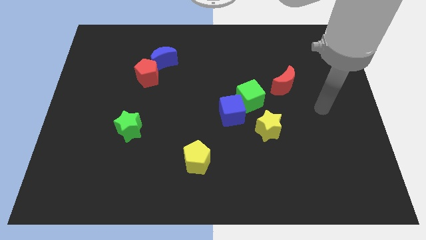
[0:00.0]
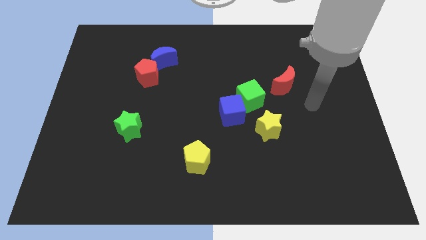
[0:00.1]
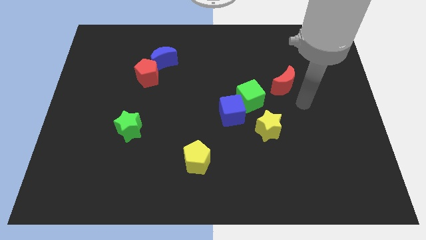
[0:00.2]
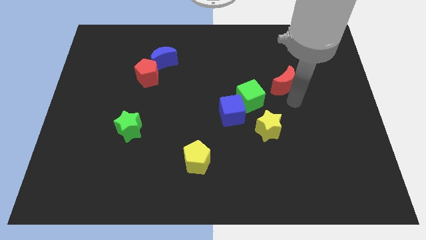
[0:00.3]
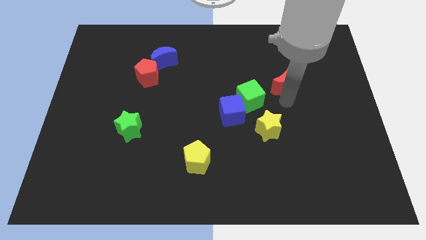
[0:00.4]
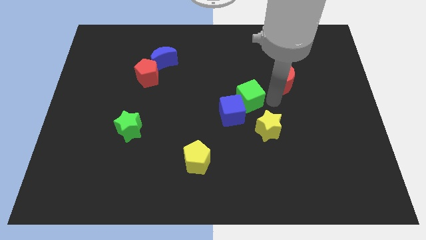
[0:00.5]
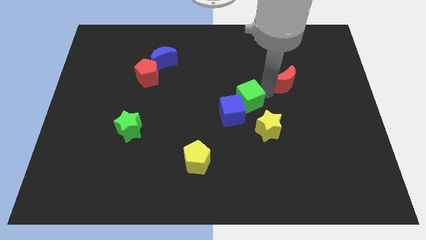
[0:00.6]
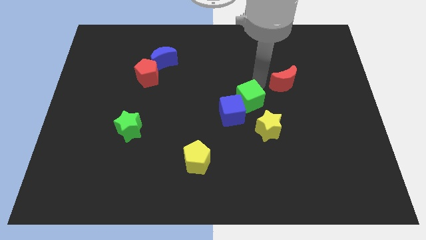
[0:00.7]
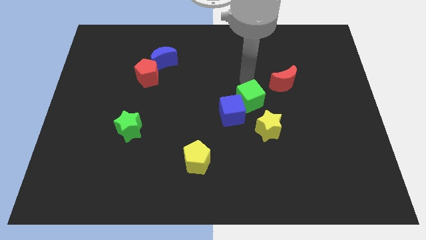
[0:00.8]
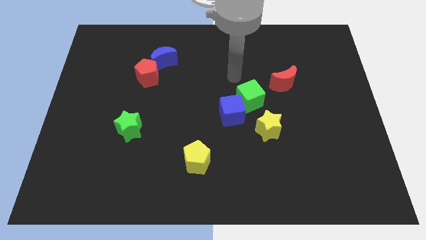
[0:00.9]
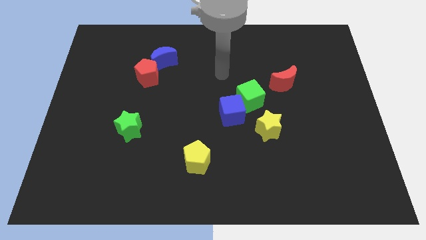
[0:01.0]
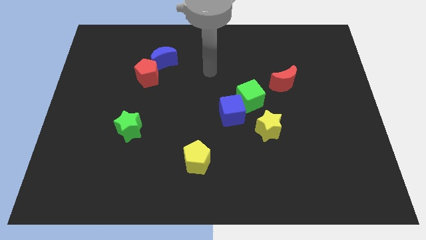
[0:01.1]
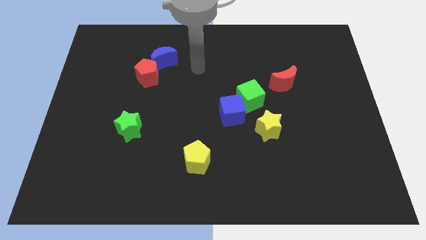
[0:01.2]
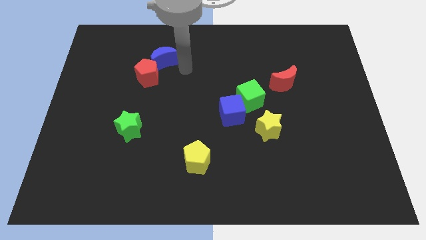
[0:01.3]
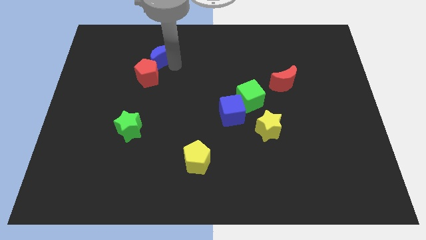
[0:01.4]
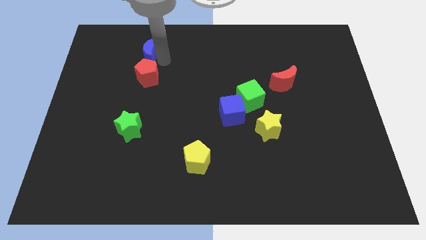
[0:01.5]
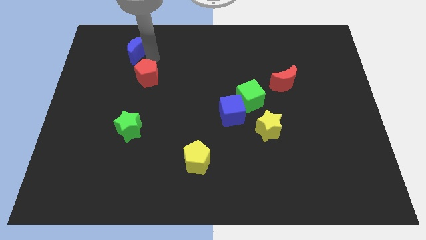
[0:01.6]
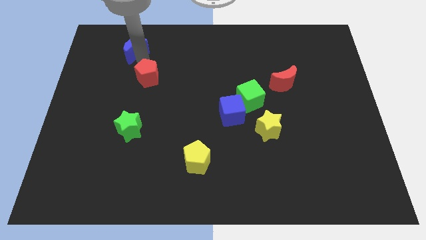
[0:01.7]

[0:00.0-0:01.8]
separate the red pentagon from the blue moon

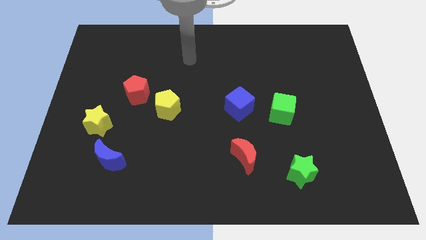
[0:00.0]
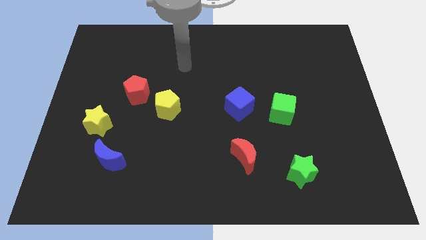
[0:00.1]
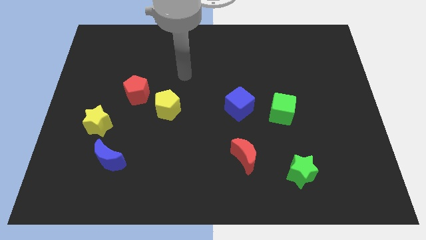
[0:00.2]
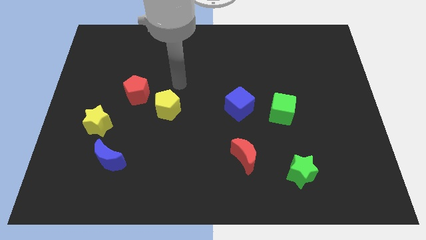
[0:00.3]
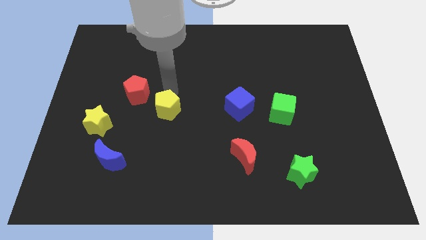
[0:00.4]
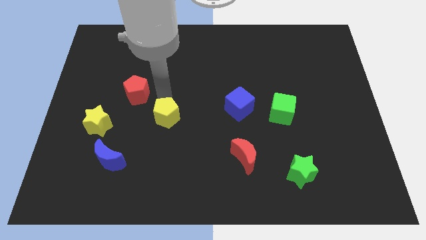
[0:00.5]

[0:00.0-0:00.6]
move the red pentagon away from the yellow pentagon

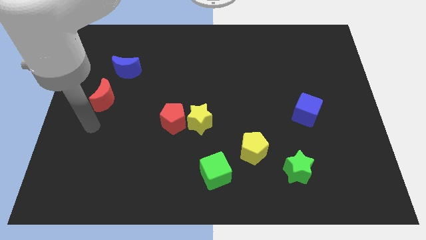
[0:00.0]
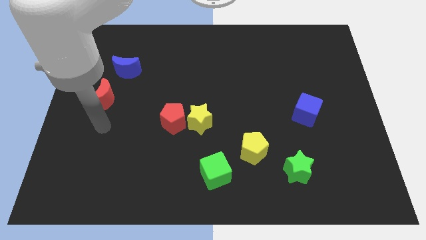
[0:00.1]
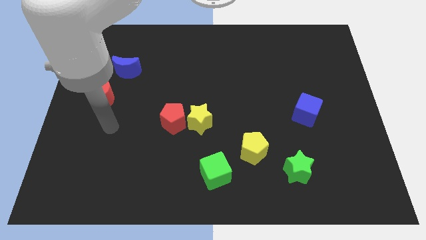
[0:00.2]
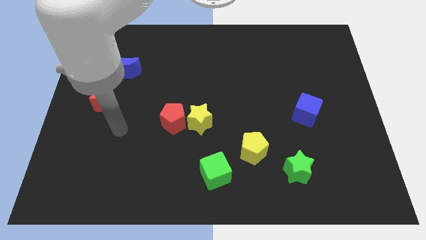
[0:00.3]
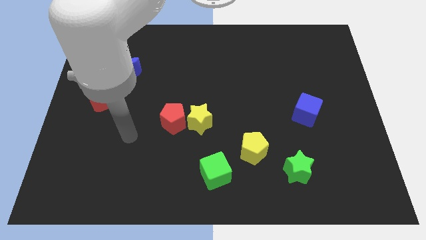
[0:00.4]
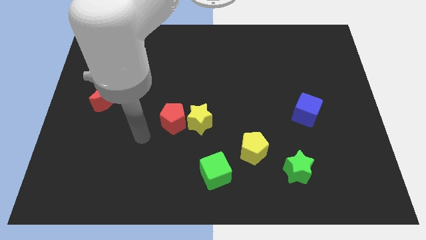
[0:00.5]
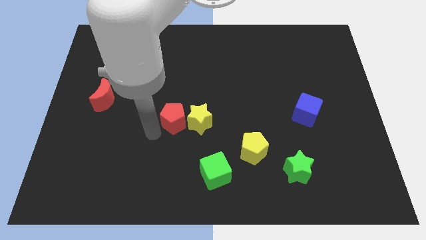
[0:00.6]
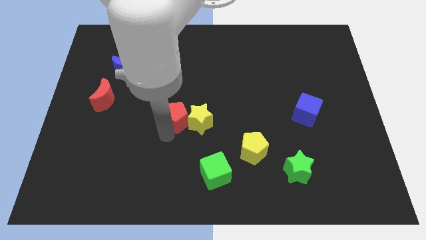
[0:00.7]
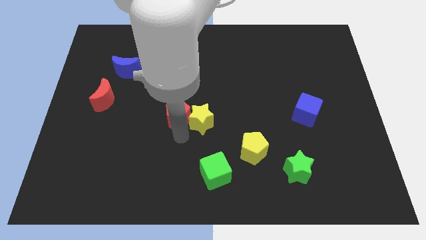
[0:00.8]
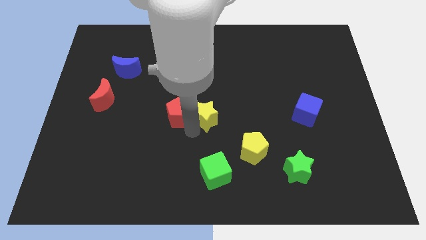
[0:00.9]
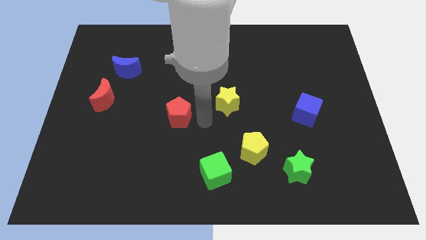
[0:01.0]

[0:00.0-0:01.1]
move the red pentagon away from the yellow star

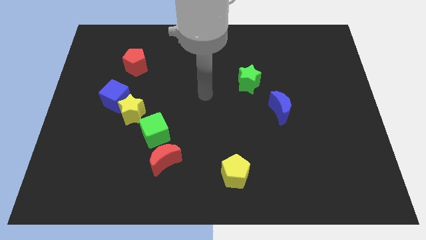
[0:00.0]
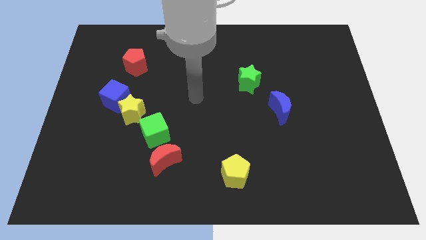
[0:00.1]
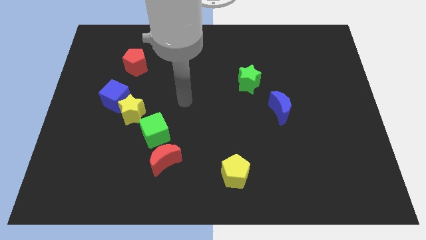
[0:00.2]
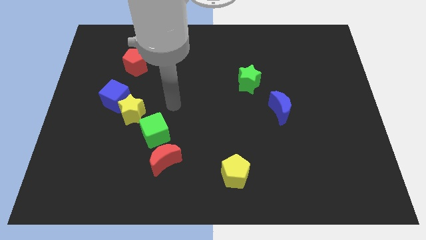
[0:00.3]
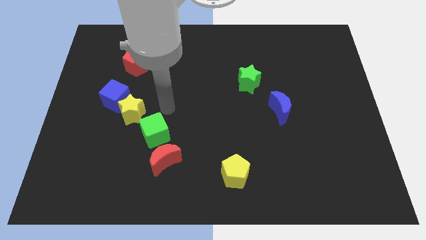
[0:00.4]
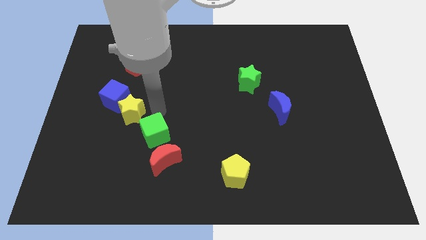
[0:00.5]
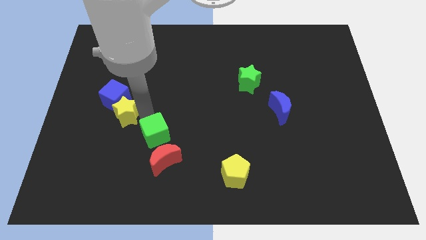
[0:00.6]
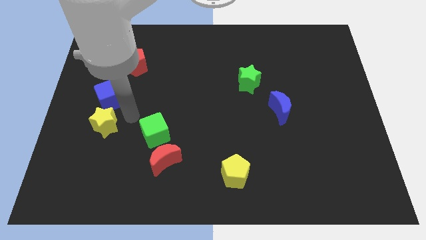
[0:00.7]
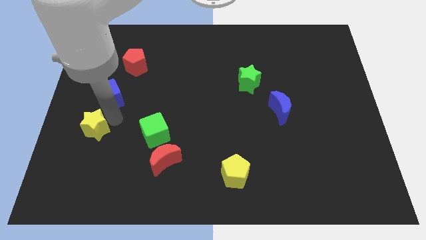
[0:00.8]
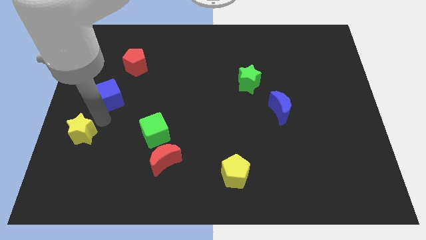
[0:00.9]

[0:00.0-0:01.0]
pull the blue cube apart from the yellow star

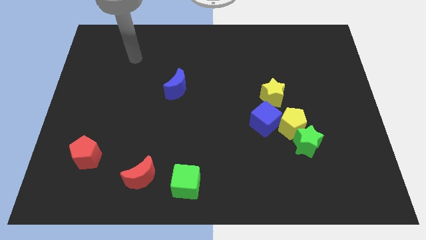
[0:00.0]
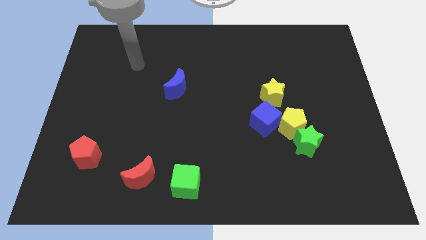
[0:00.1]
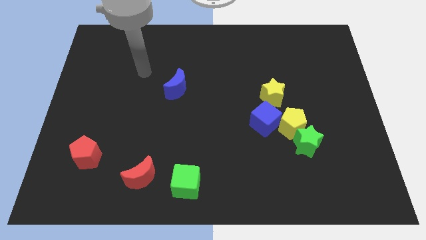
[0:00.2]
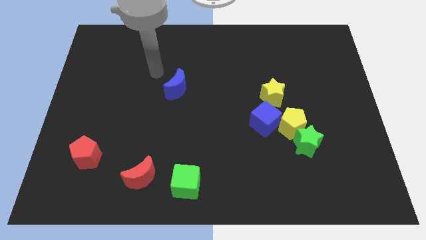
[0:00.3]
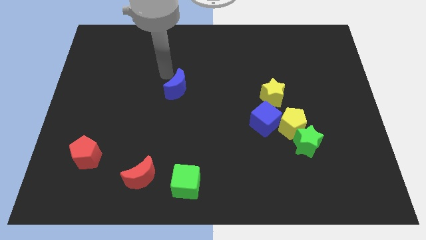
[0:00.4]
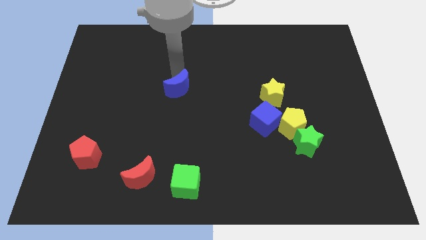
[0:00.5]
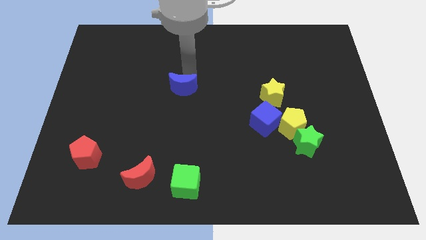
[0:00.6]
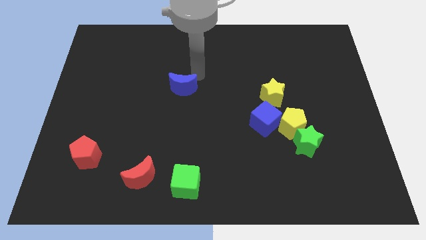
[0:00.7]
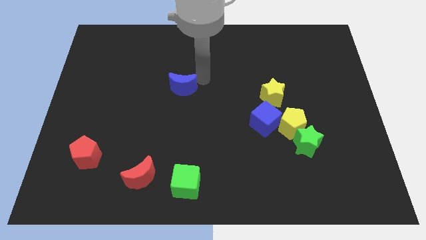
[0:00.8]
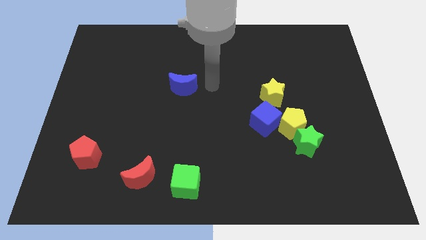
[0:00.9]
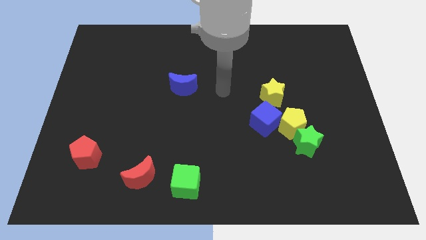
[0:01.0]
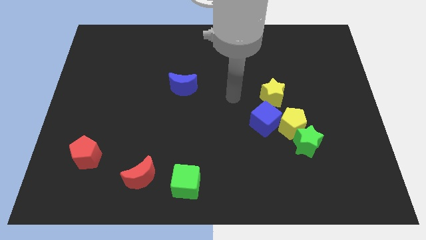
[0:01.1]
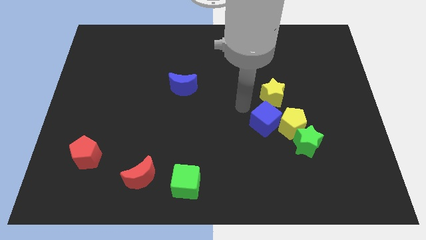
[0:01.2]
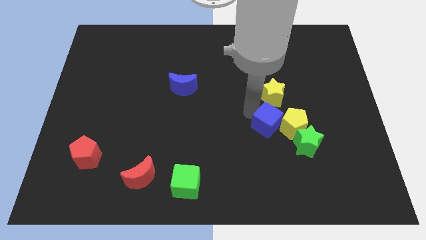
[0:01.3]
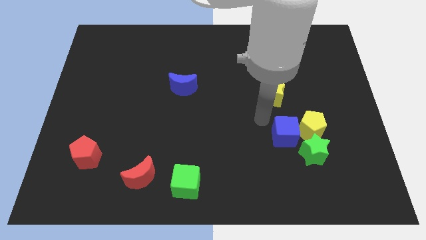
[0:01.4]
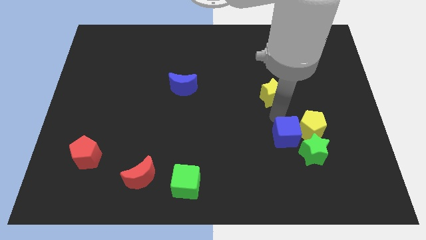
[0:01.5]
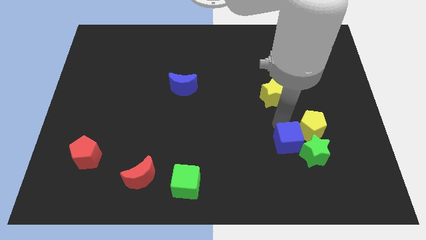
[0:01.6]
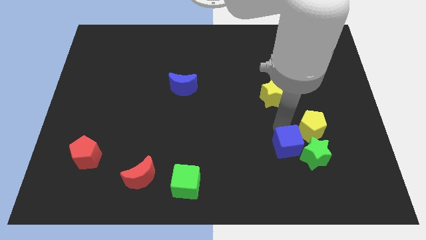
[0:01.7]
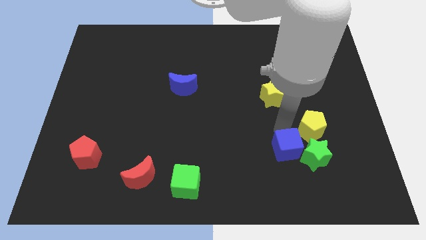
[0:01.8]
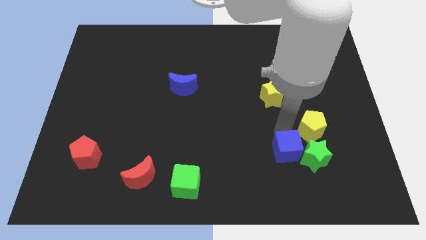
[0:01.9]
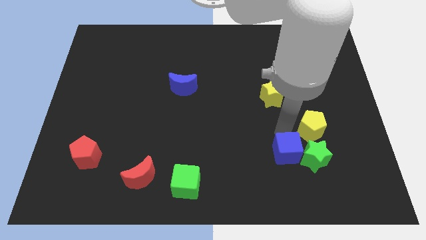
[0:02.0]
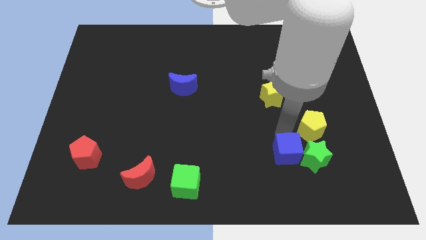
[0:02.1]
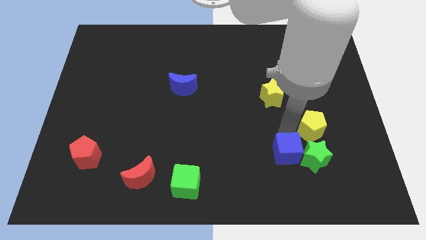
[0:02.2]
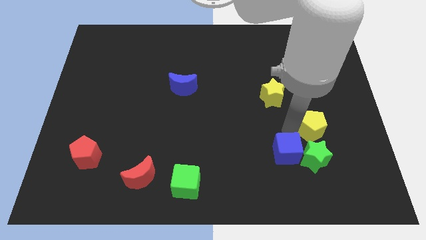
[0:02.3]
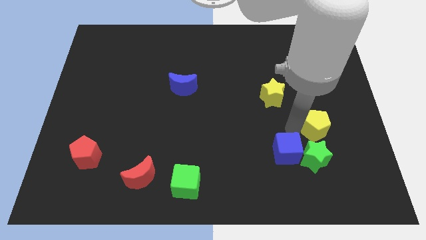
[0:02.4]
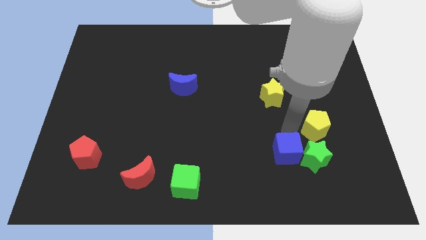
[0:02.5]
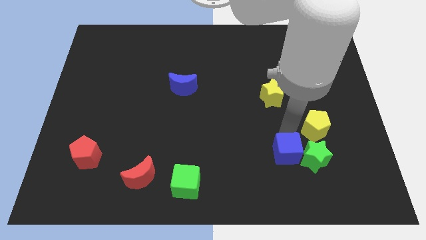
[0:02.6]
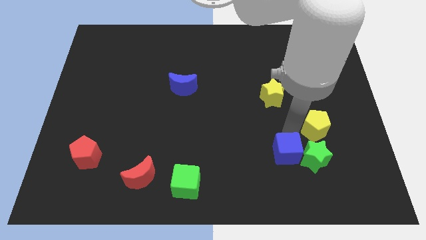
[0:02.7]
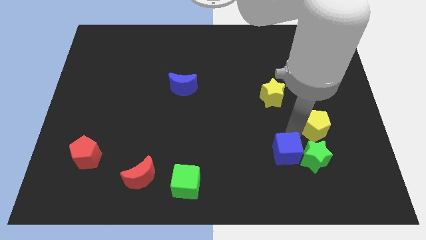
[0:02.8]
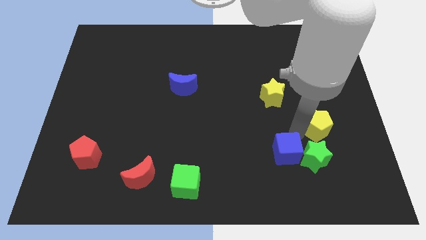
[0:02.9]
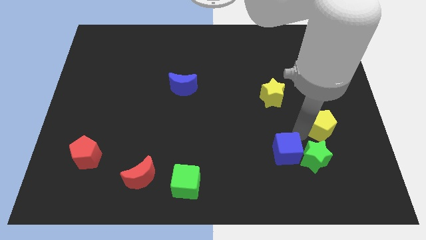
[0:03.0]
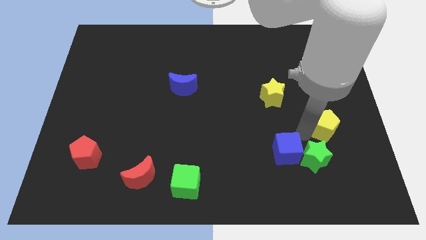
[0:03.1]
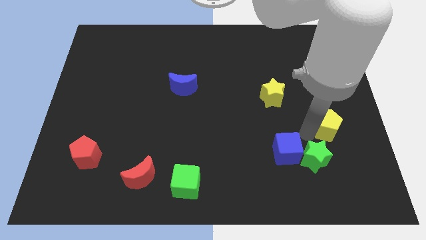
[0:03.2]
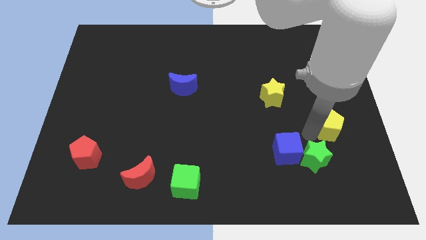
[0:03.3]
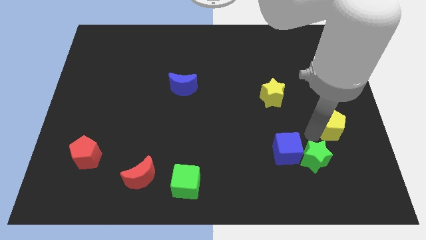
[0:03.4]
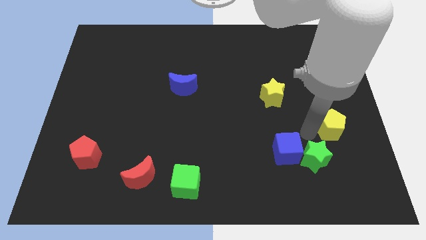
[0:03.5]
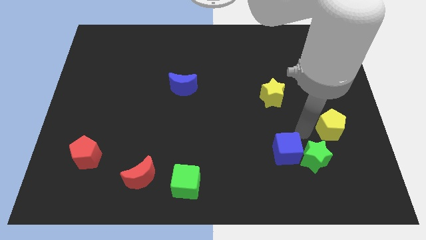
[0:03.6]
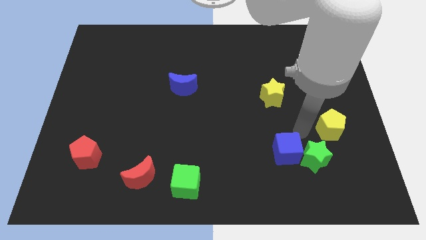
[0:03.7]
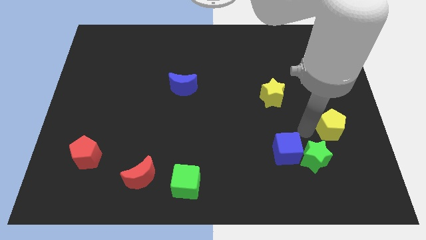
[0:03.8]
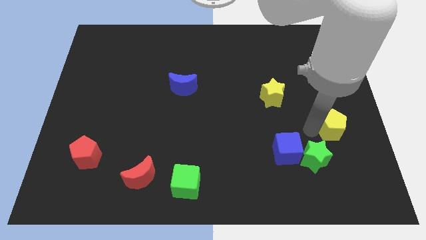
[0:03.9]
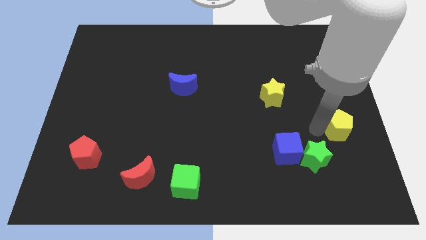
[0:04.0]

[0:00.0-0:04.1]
pull the yellow pentagon apart from the green star, blue cube, and yellow star

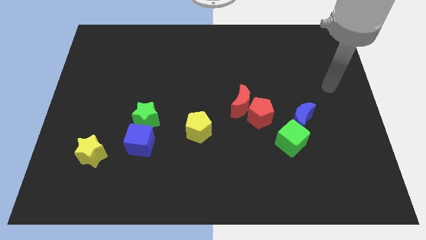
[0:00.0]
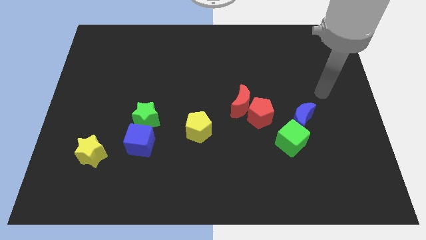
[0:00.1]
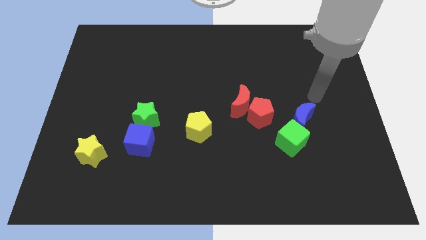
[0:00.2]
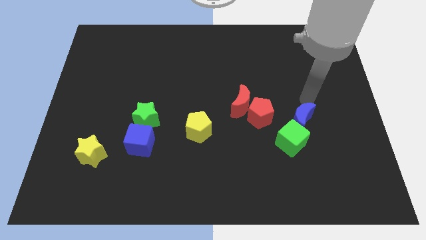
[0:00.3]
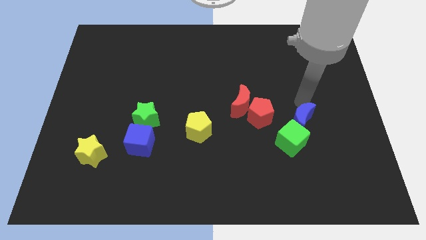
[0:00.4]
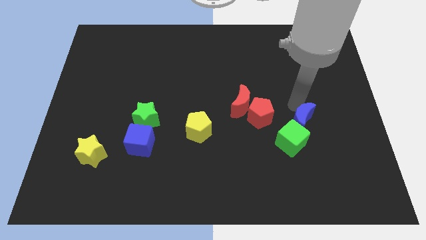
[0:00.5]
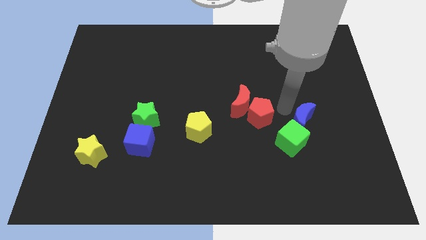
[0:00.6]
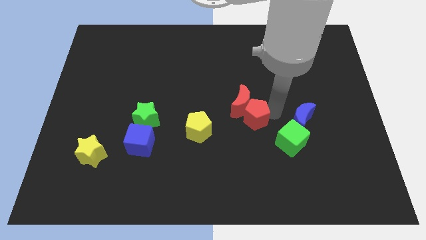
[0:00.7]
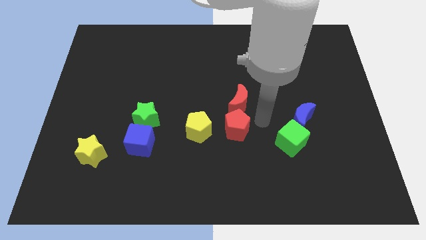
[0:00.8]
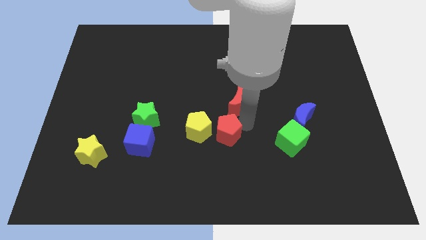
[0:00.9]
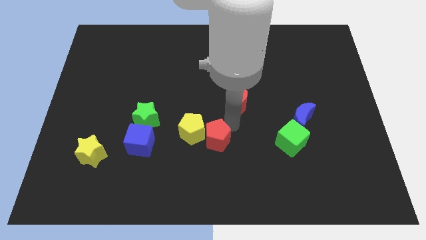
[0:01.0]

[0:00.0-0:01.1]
pull the red moon apart from the red pentagon
